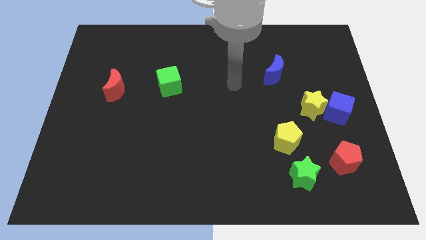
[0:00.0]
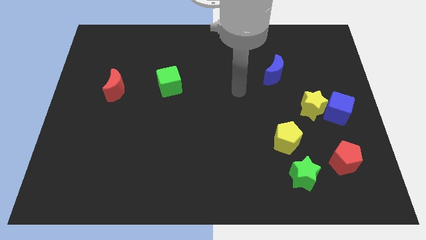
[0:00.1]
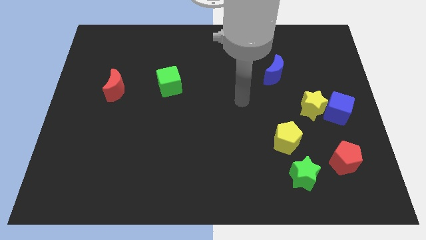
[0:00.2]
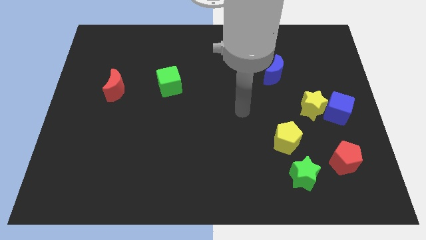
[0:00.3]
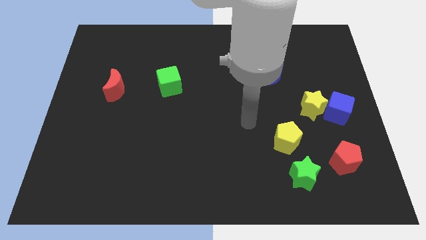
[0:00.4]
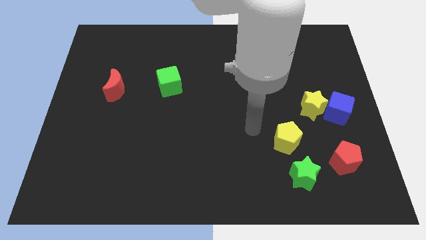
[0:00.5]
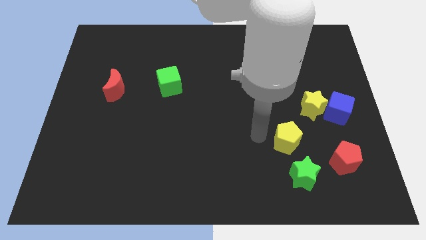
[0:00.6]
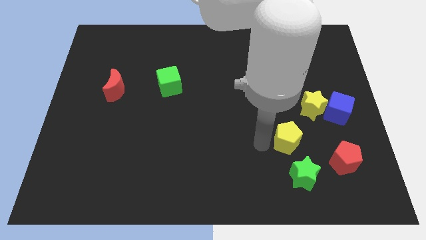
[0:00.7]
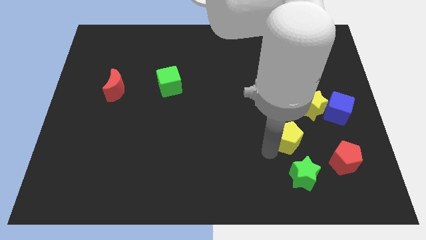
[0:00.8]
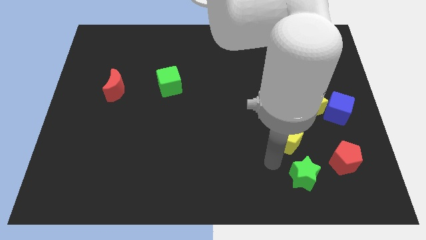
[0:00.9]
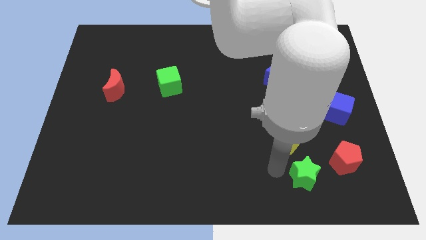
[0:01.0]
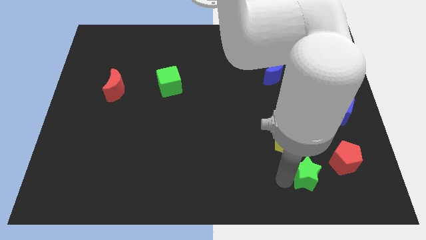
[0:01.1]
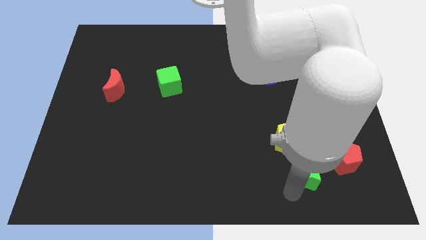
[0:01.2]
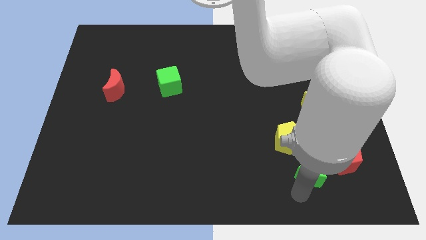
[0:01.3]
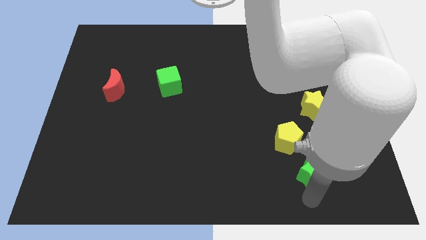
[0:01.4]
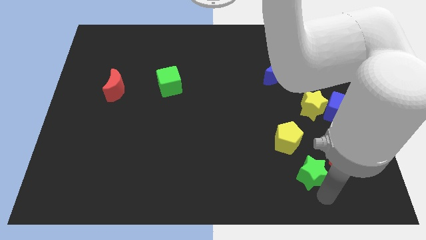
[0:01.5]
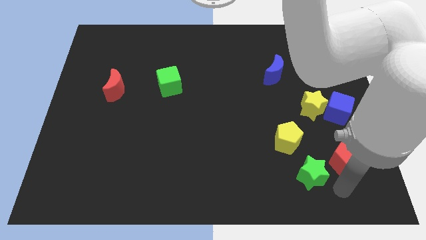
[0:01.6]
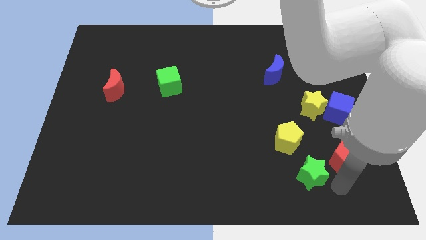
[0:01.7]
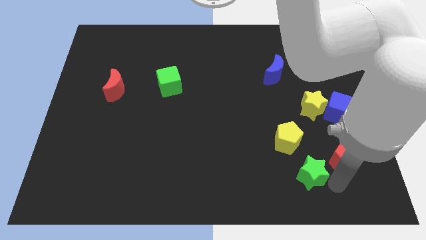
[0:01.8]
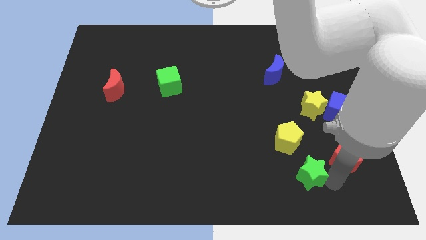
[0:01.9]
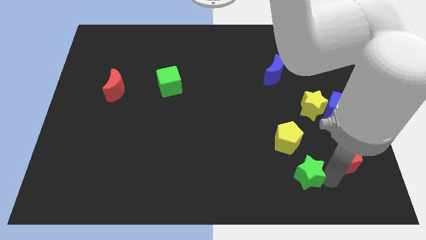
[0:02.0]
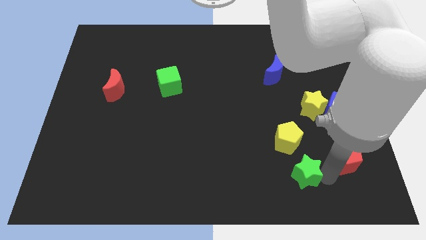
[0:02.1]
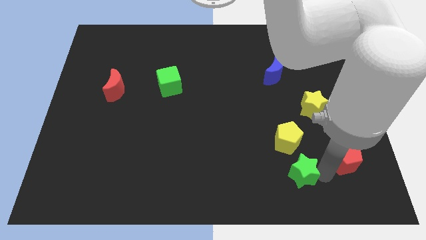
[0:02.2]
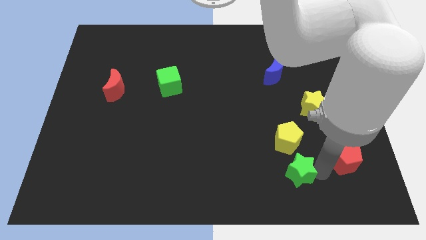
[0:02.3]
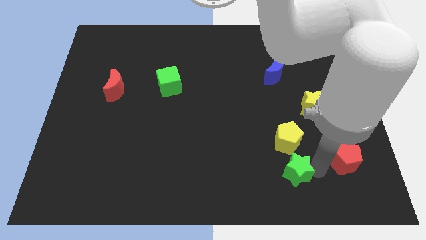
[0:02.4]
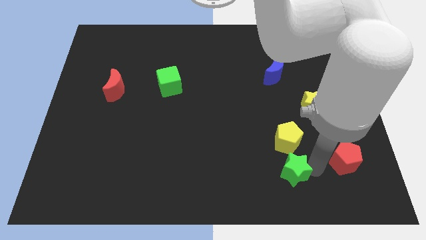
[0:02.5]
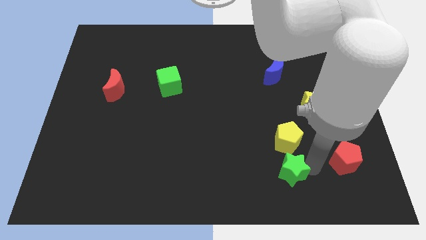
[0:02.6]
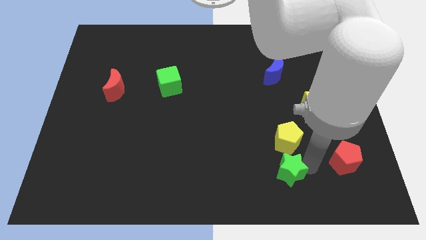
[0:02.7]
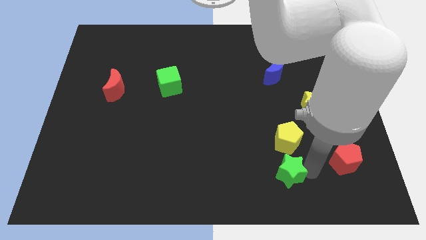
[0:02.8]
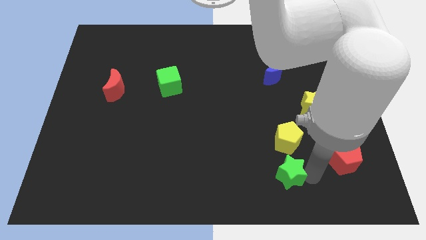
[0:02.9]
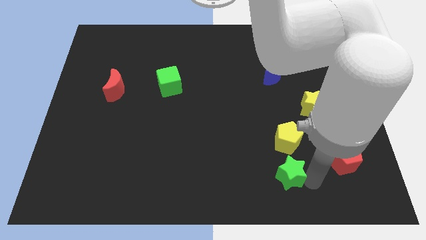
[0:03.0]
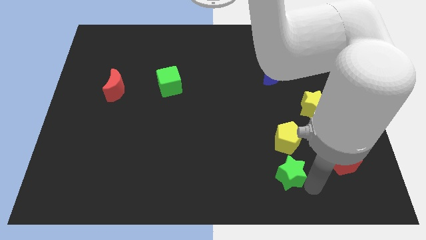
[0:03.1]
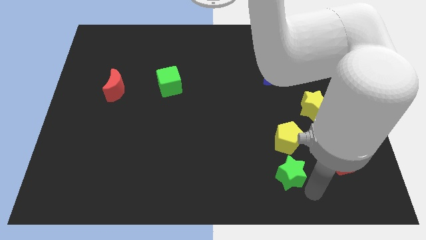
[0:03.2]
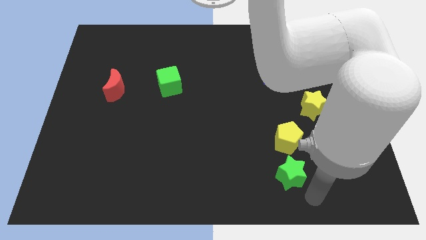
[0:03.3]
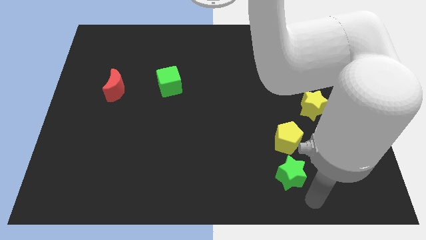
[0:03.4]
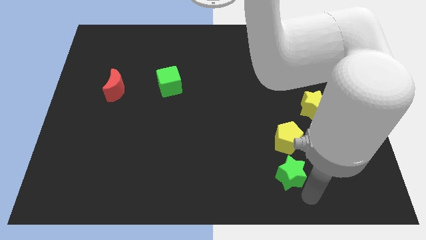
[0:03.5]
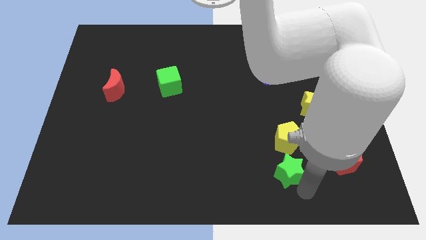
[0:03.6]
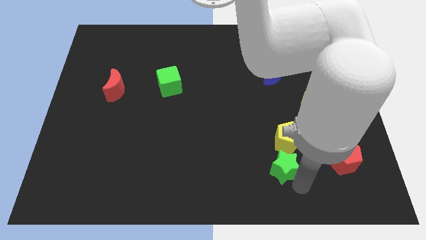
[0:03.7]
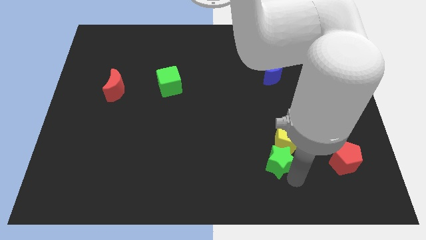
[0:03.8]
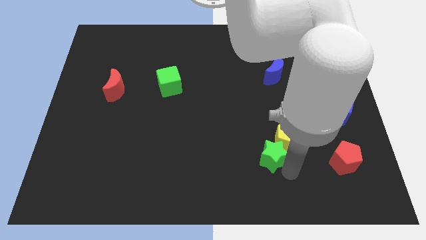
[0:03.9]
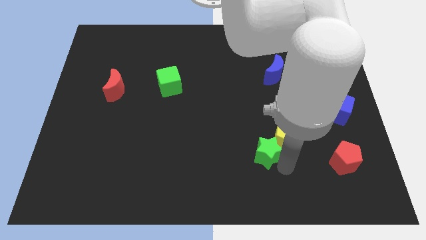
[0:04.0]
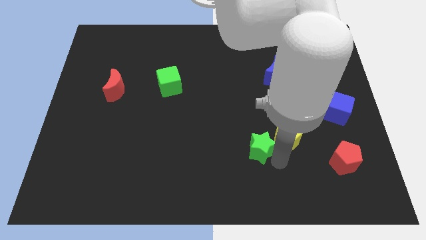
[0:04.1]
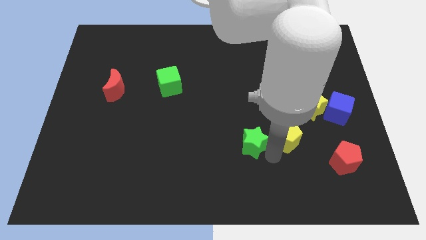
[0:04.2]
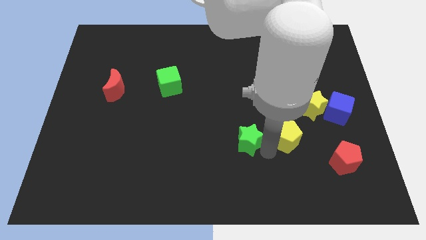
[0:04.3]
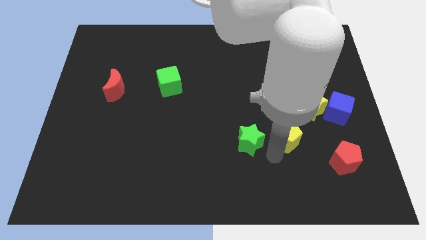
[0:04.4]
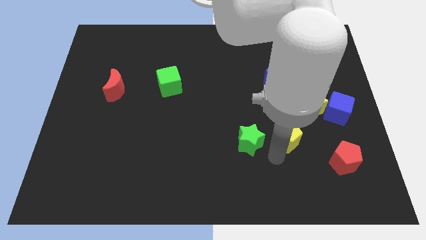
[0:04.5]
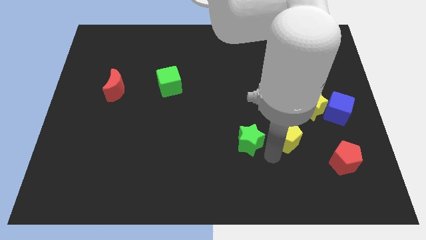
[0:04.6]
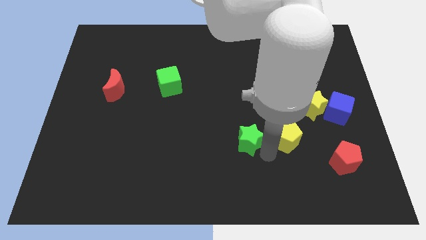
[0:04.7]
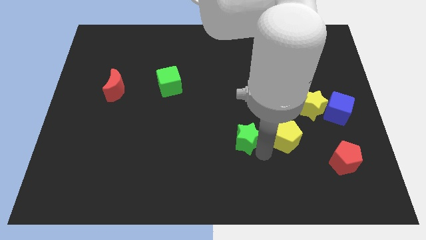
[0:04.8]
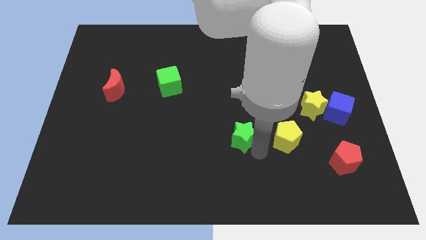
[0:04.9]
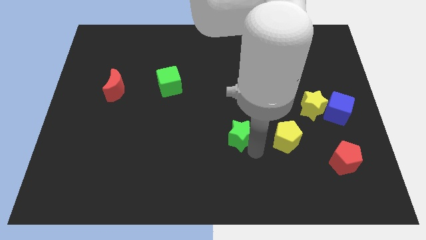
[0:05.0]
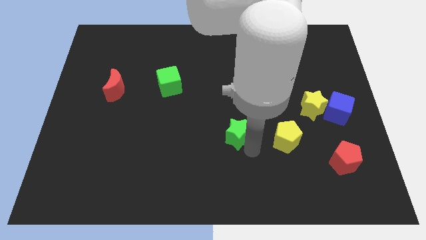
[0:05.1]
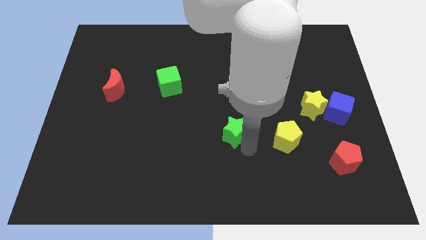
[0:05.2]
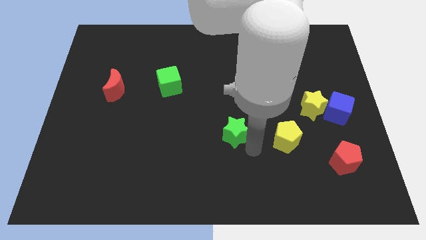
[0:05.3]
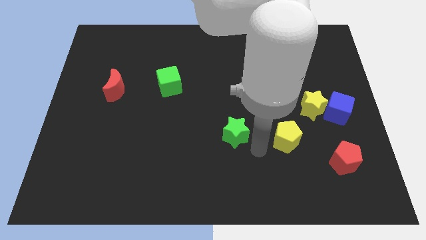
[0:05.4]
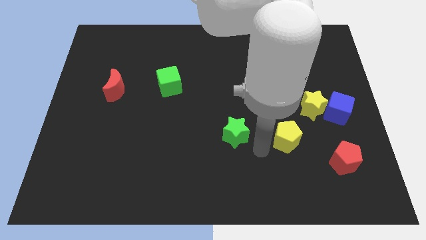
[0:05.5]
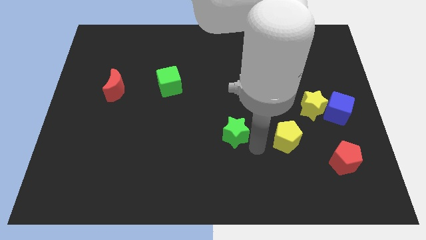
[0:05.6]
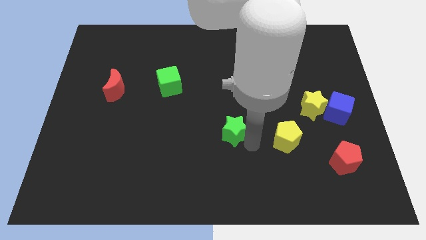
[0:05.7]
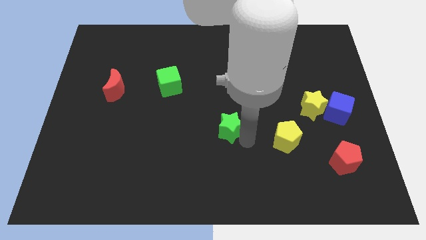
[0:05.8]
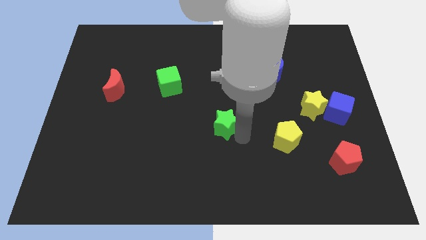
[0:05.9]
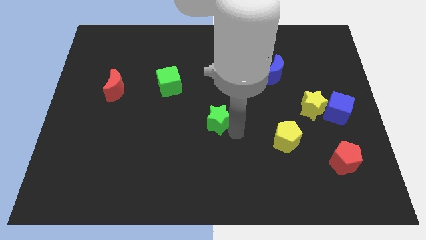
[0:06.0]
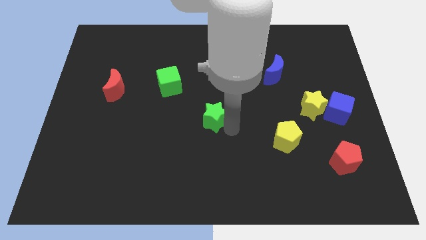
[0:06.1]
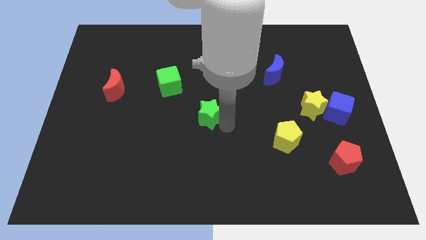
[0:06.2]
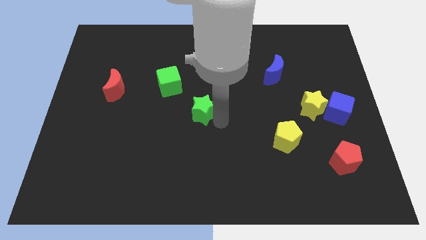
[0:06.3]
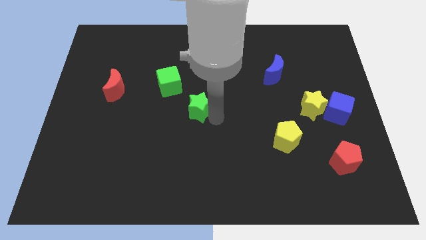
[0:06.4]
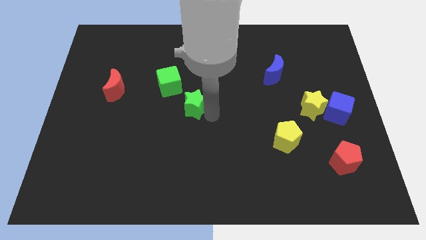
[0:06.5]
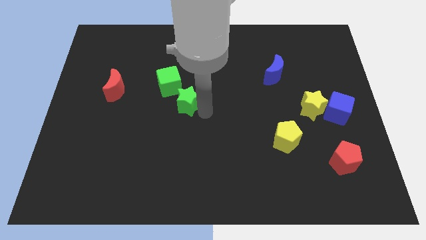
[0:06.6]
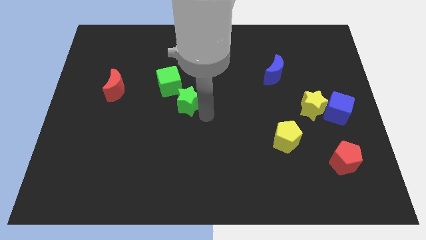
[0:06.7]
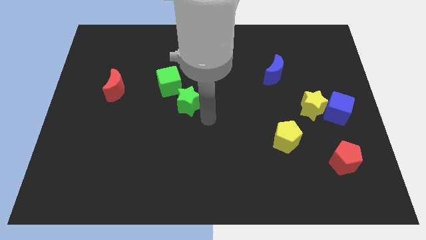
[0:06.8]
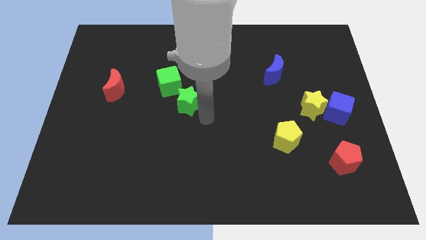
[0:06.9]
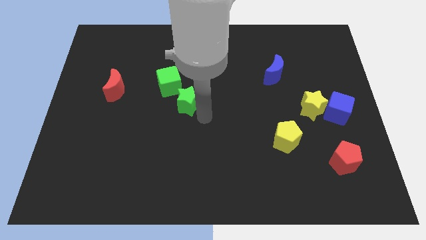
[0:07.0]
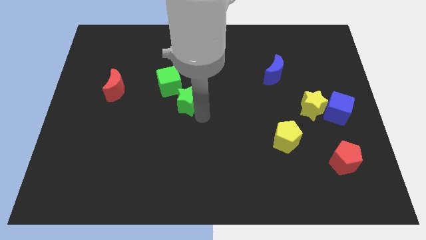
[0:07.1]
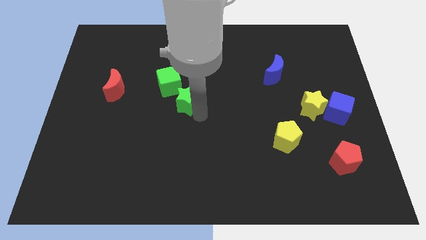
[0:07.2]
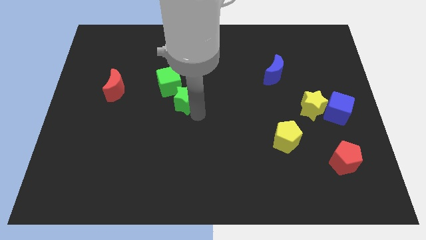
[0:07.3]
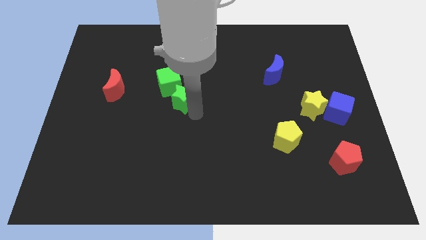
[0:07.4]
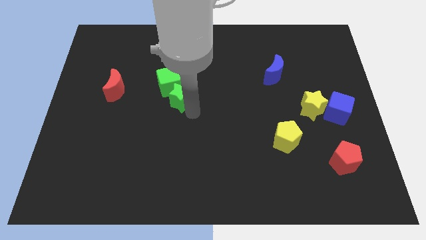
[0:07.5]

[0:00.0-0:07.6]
push the green star to the green cube
